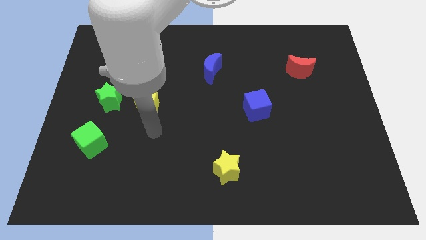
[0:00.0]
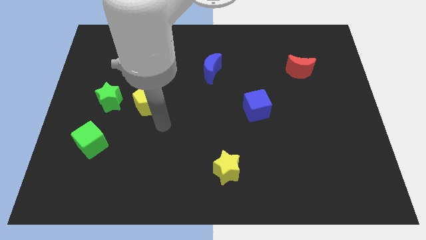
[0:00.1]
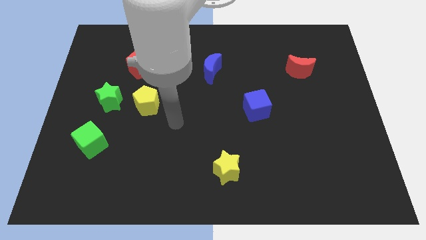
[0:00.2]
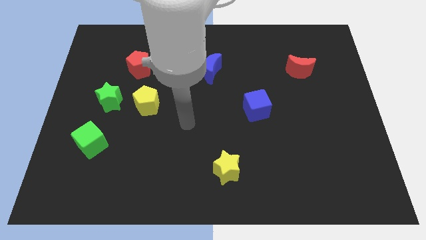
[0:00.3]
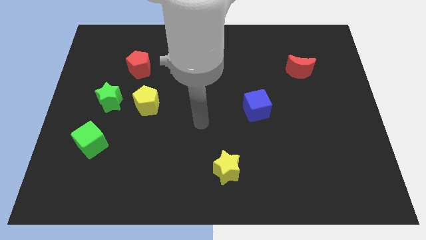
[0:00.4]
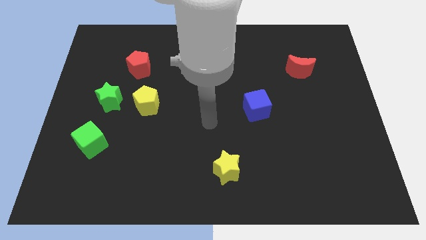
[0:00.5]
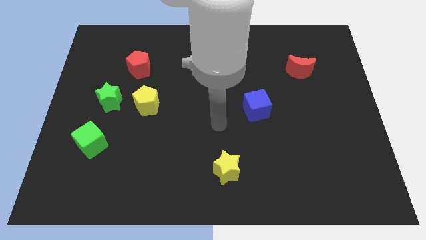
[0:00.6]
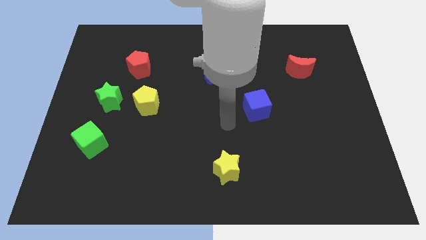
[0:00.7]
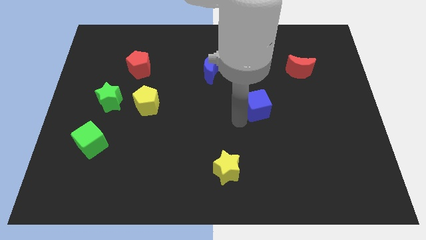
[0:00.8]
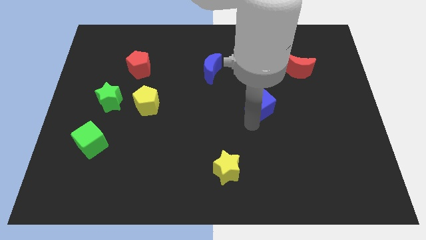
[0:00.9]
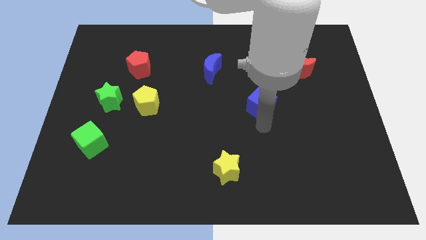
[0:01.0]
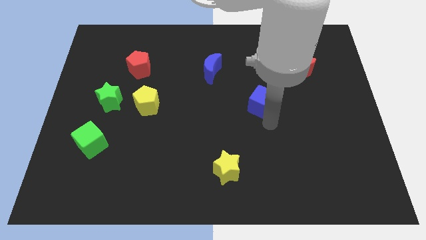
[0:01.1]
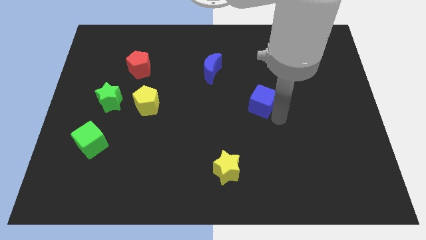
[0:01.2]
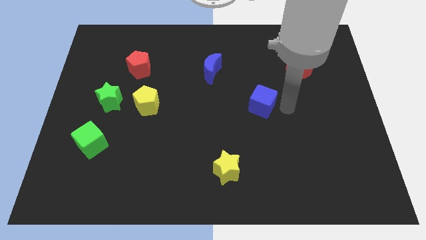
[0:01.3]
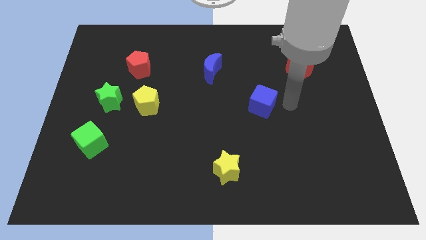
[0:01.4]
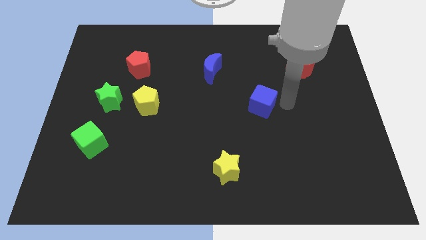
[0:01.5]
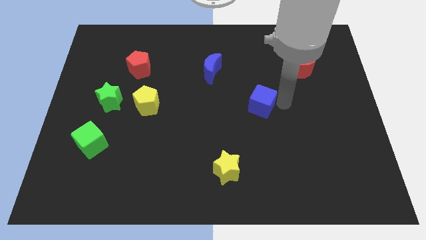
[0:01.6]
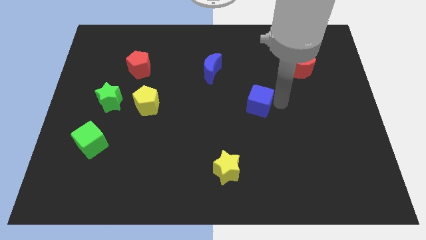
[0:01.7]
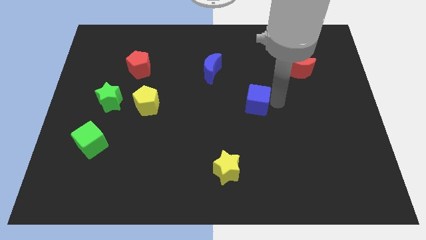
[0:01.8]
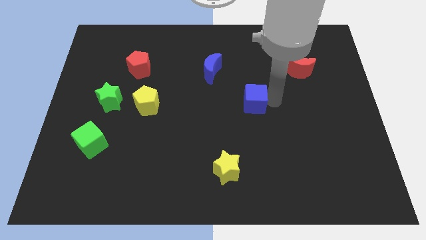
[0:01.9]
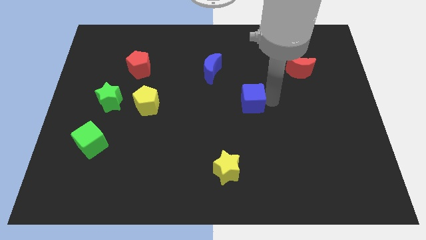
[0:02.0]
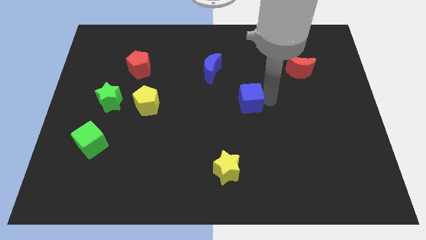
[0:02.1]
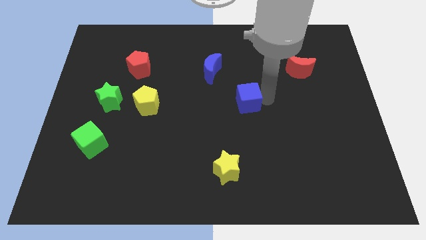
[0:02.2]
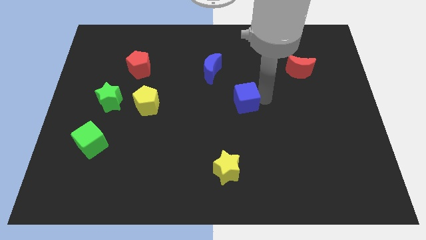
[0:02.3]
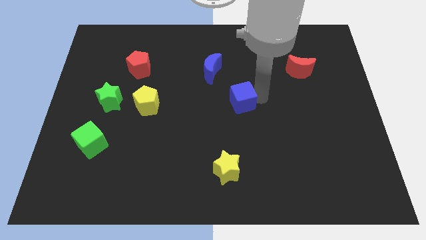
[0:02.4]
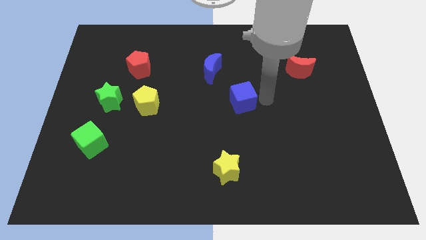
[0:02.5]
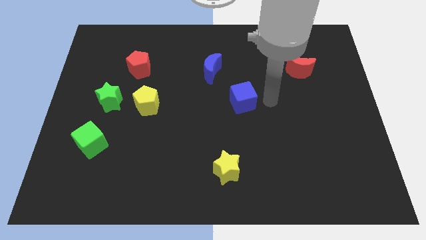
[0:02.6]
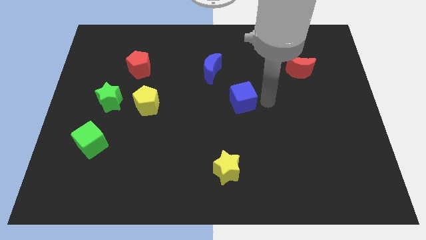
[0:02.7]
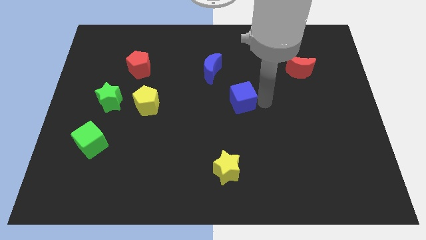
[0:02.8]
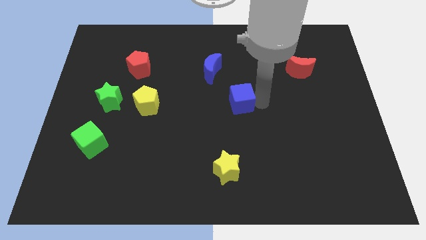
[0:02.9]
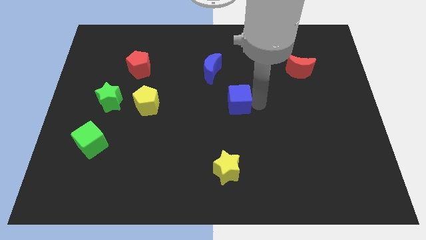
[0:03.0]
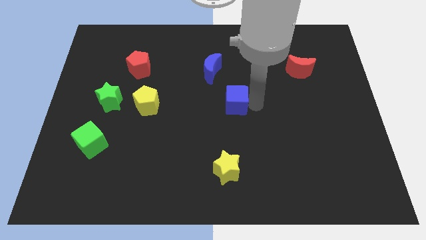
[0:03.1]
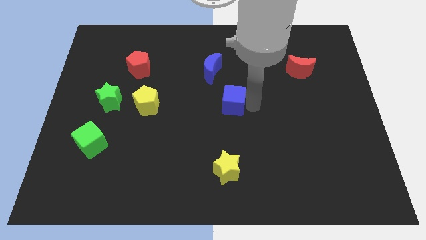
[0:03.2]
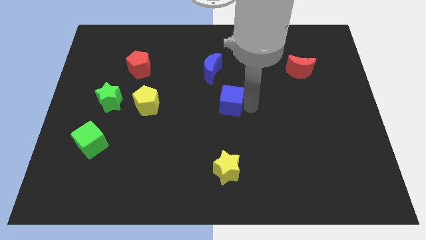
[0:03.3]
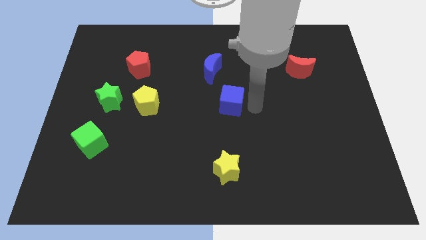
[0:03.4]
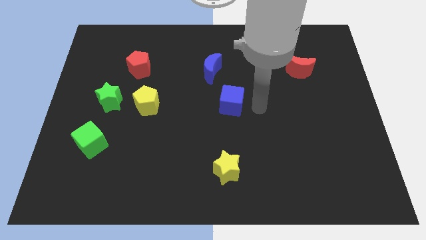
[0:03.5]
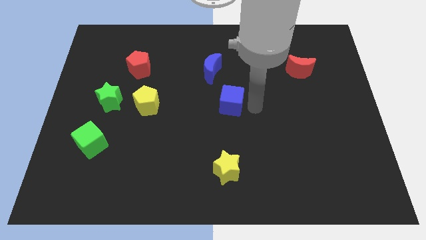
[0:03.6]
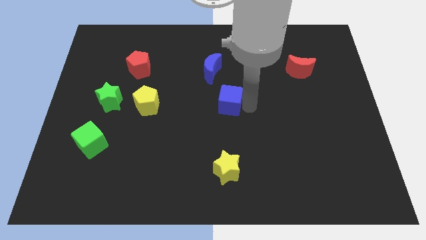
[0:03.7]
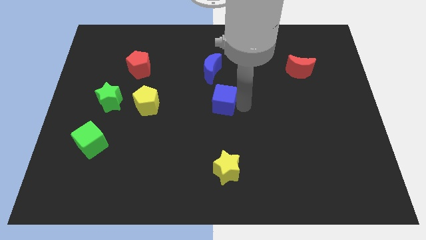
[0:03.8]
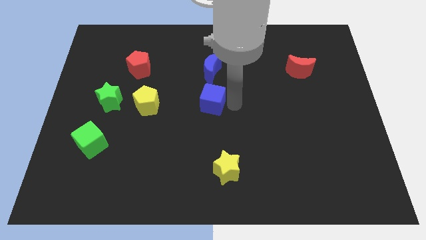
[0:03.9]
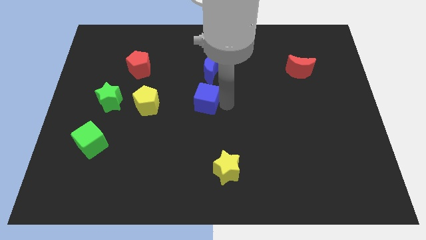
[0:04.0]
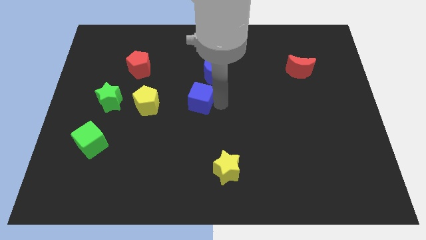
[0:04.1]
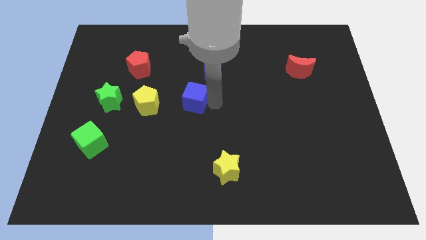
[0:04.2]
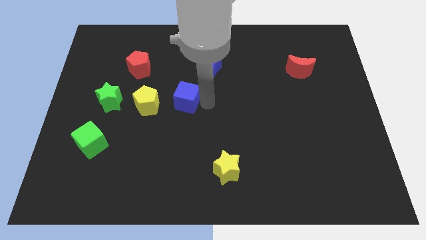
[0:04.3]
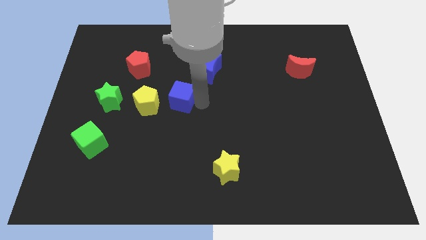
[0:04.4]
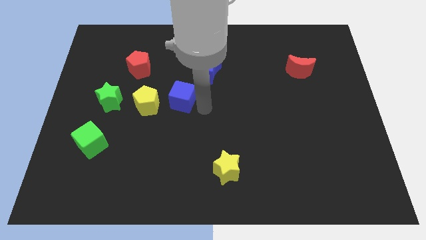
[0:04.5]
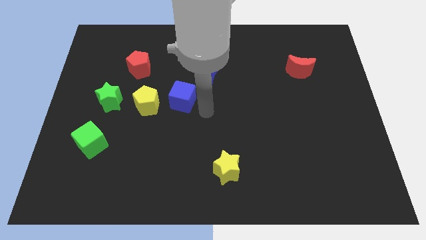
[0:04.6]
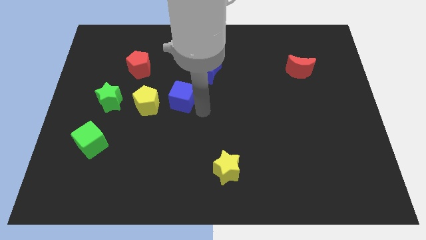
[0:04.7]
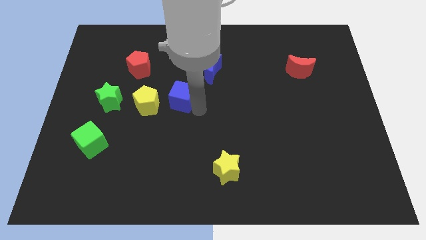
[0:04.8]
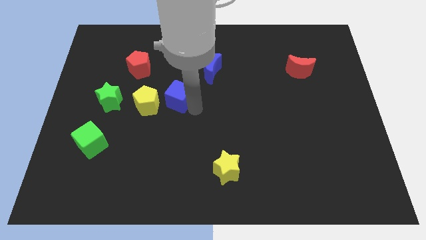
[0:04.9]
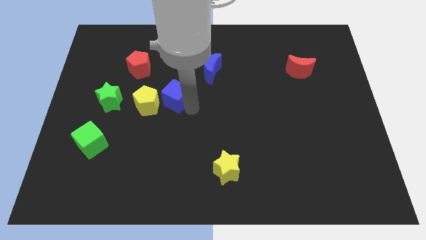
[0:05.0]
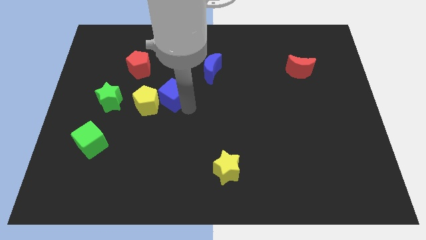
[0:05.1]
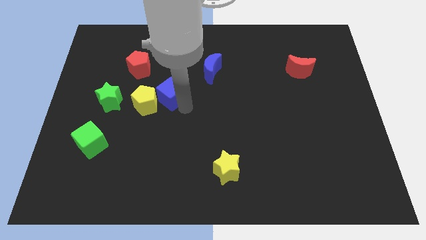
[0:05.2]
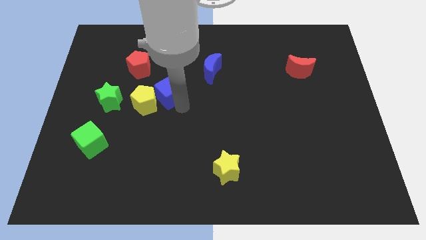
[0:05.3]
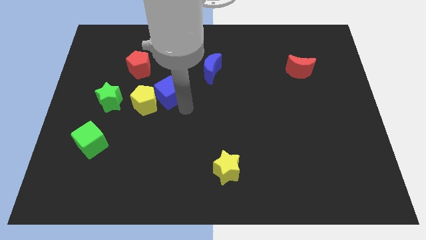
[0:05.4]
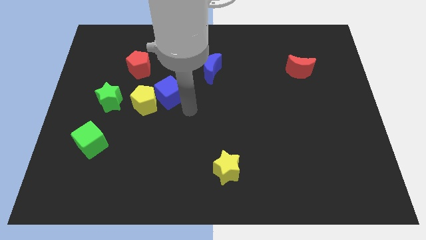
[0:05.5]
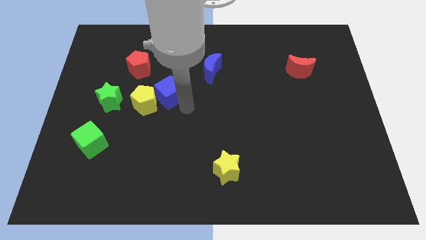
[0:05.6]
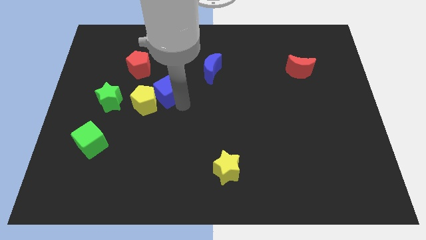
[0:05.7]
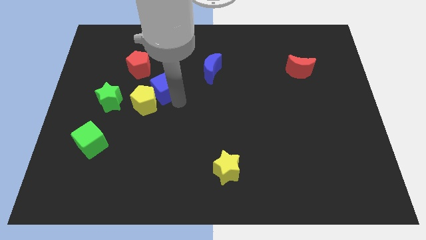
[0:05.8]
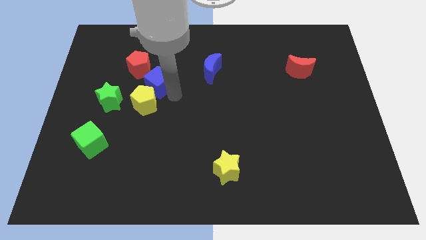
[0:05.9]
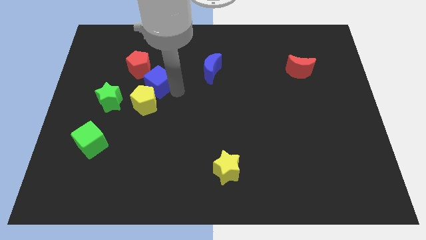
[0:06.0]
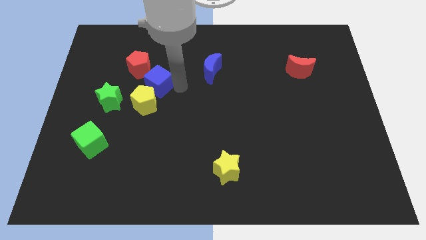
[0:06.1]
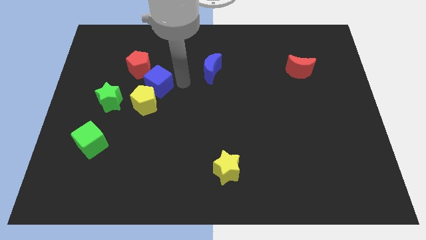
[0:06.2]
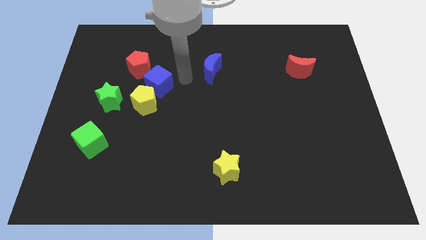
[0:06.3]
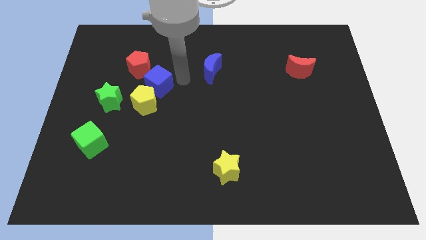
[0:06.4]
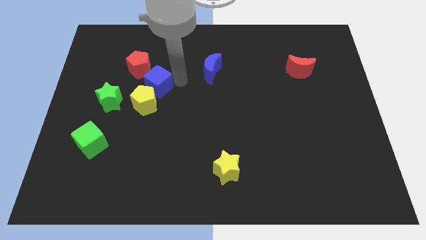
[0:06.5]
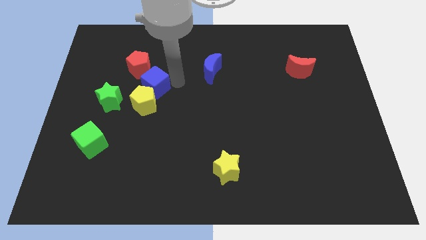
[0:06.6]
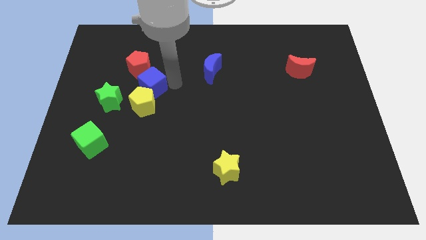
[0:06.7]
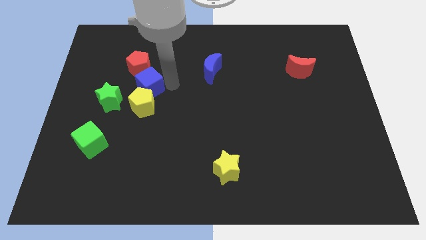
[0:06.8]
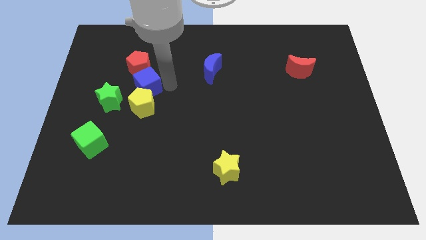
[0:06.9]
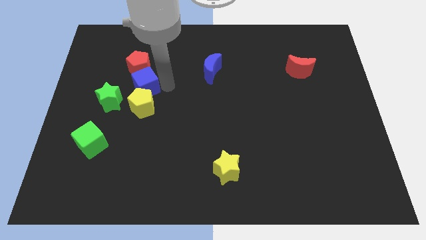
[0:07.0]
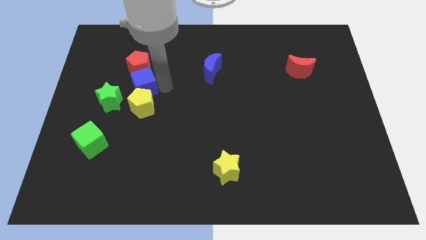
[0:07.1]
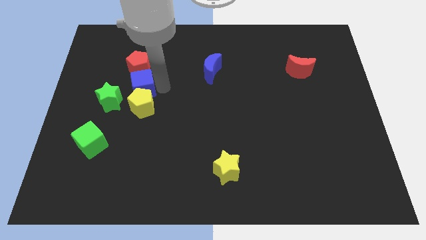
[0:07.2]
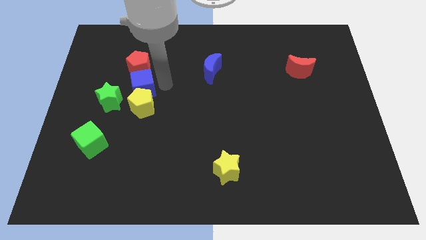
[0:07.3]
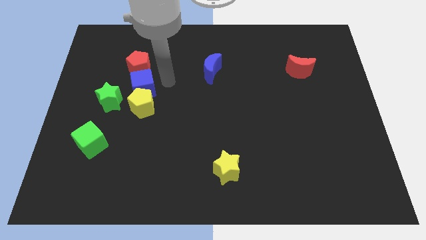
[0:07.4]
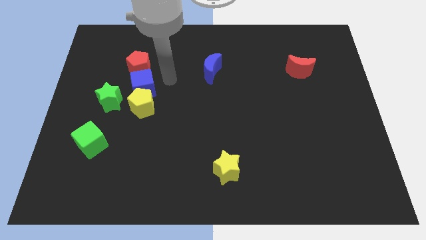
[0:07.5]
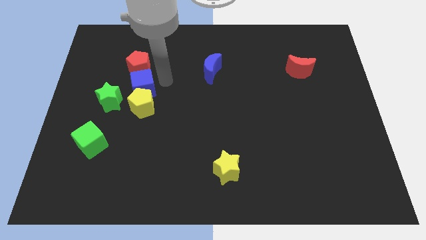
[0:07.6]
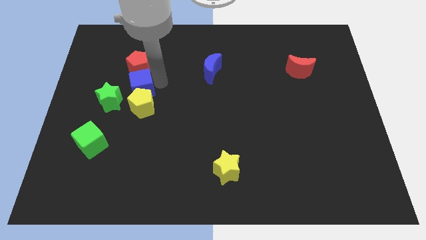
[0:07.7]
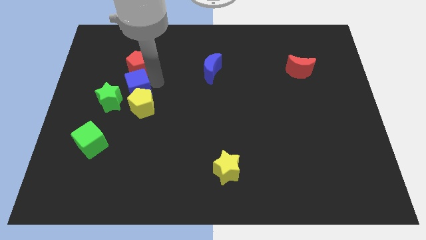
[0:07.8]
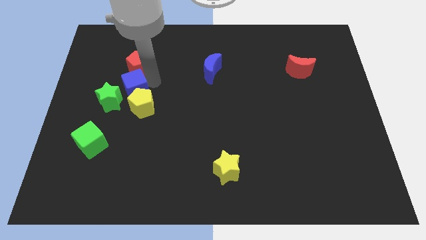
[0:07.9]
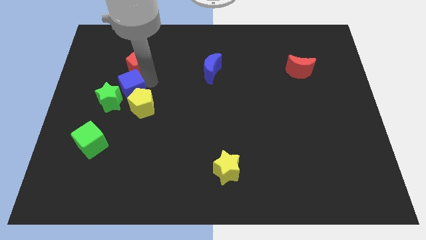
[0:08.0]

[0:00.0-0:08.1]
move the blue cube to the green star
